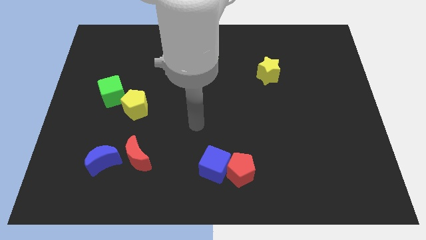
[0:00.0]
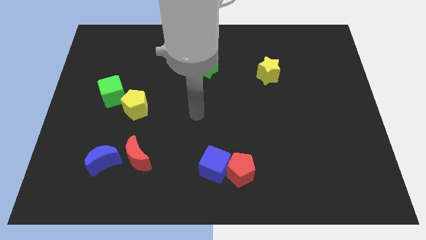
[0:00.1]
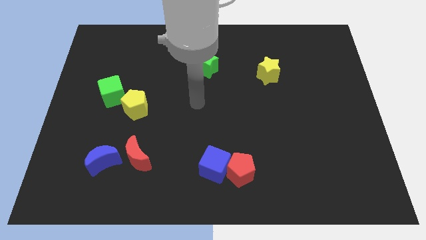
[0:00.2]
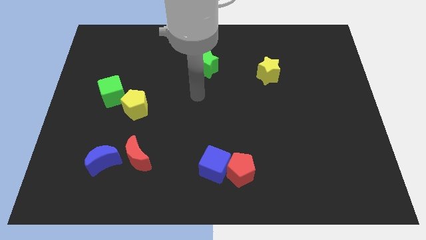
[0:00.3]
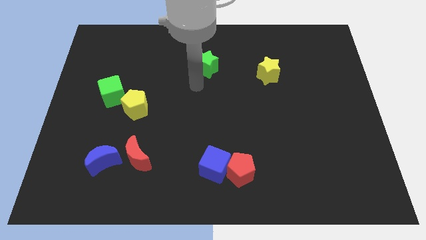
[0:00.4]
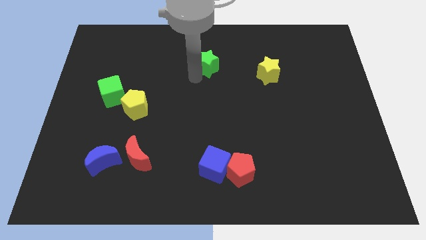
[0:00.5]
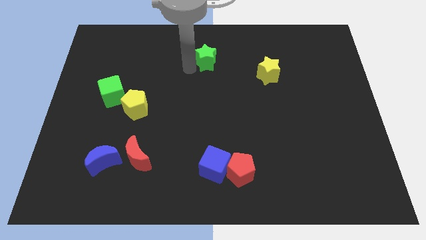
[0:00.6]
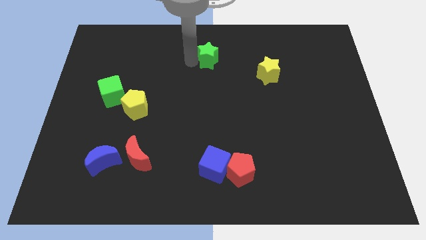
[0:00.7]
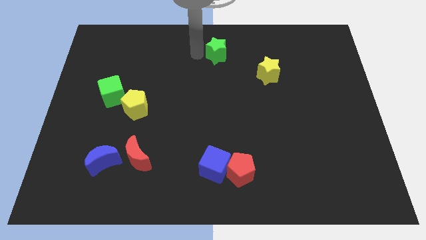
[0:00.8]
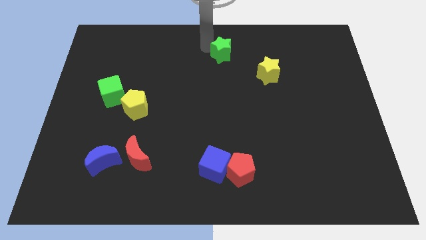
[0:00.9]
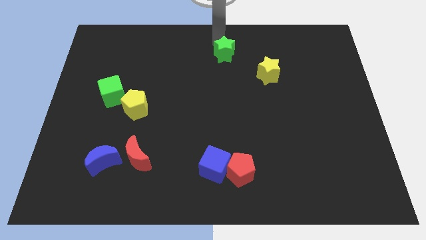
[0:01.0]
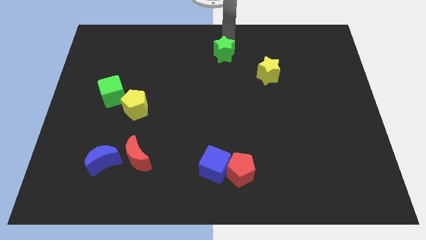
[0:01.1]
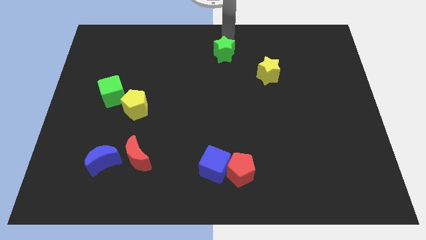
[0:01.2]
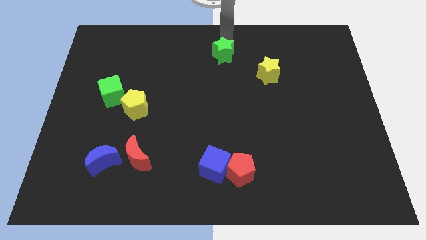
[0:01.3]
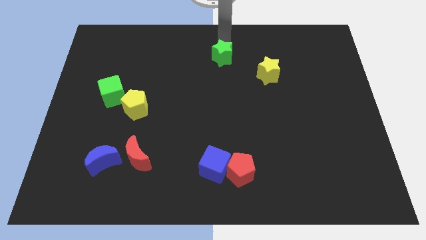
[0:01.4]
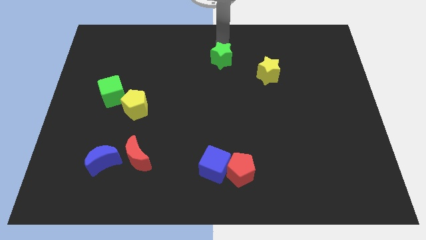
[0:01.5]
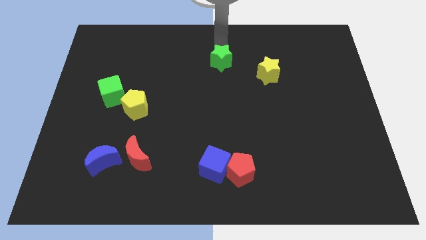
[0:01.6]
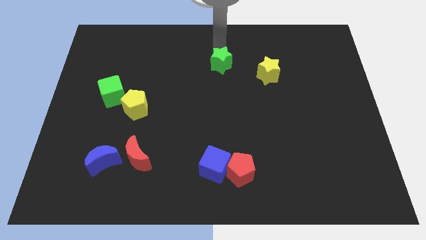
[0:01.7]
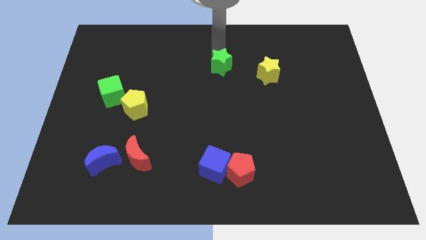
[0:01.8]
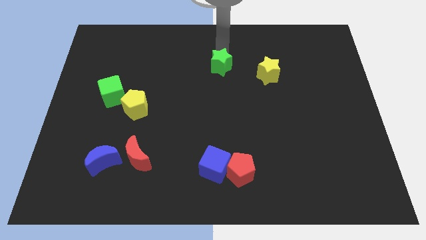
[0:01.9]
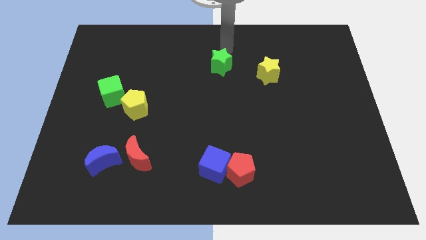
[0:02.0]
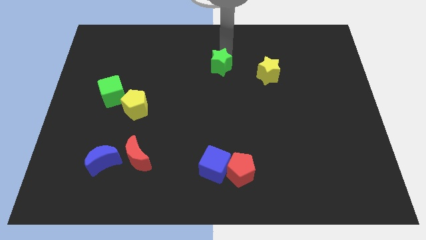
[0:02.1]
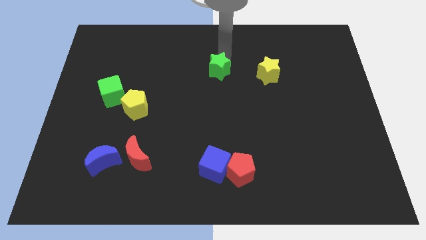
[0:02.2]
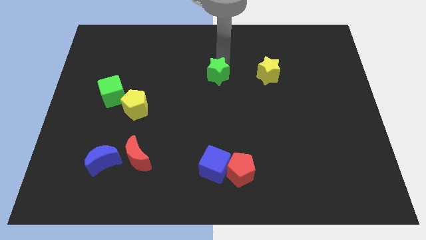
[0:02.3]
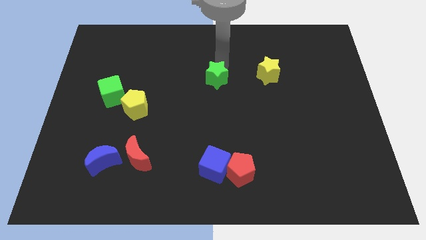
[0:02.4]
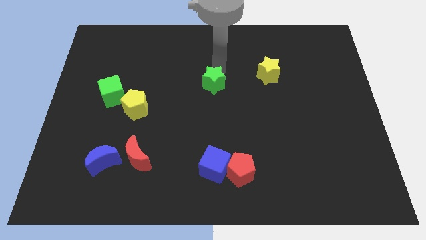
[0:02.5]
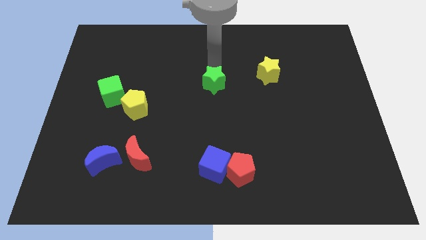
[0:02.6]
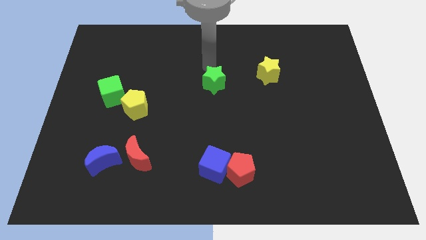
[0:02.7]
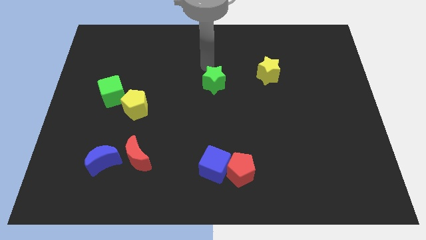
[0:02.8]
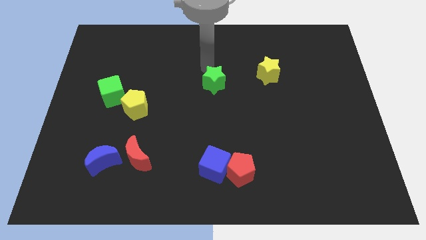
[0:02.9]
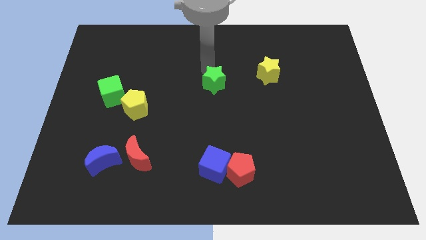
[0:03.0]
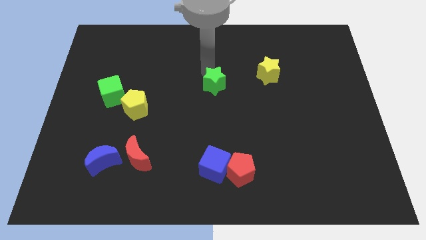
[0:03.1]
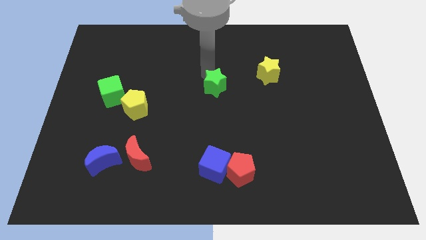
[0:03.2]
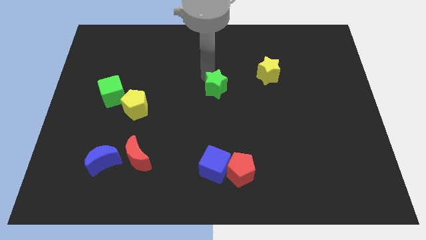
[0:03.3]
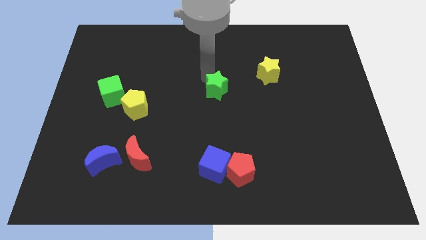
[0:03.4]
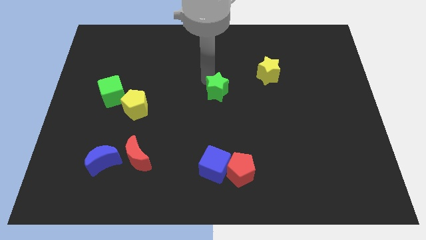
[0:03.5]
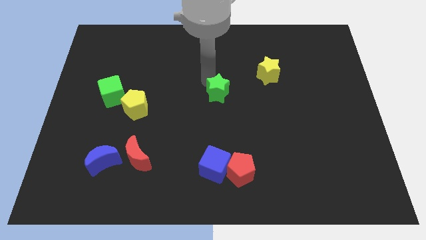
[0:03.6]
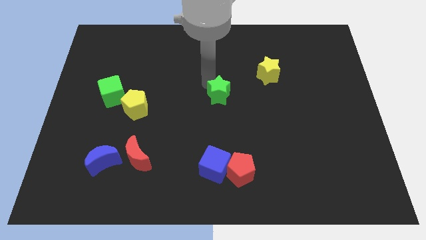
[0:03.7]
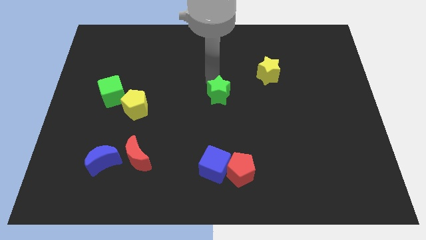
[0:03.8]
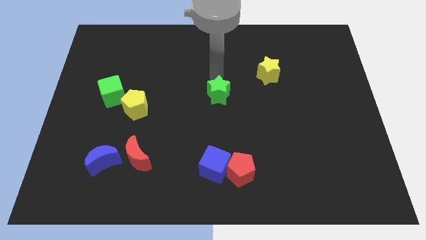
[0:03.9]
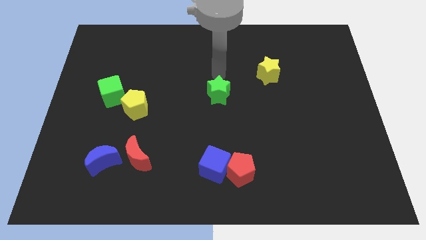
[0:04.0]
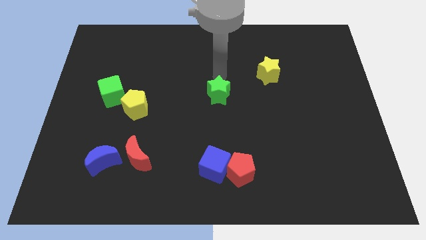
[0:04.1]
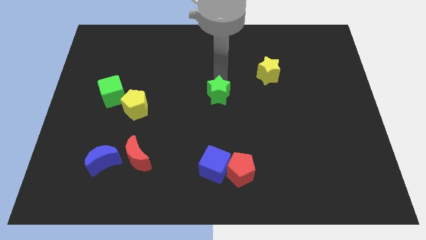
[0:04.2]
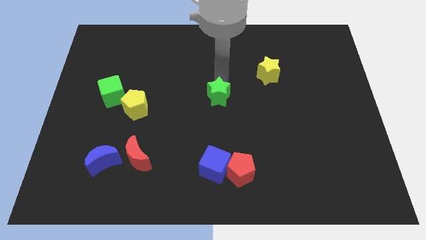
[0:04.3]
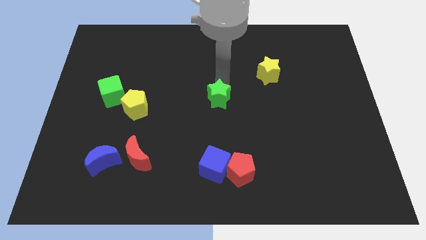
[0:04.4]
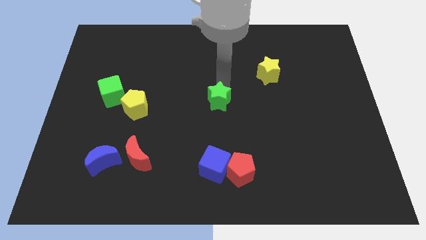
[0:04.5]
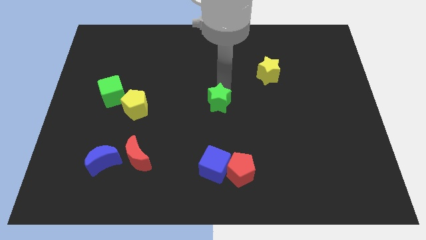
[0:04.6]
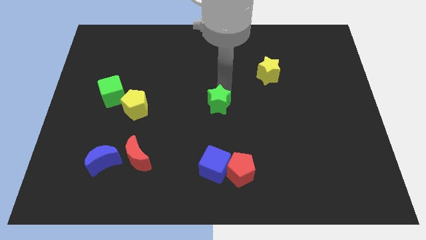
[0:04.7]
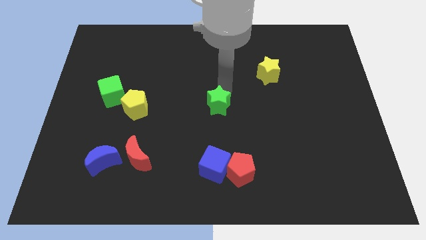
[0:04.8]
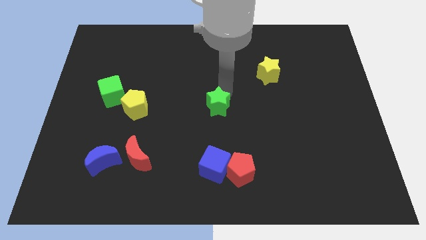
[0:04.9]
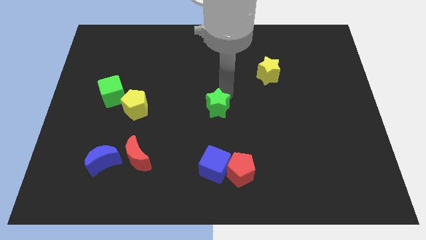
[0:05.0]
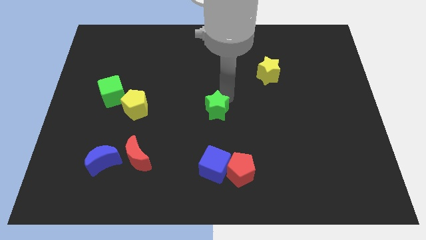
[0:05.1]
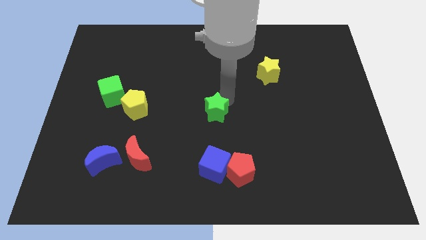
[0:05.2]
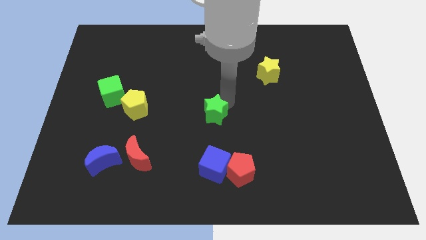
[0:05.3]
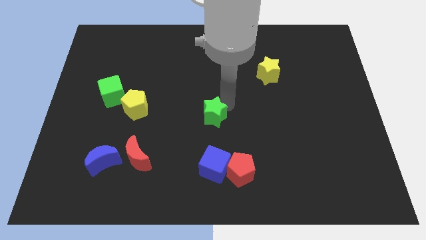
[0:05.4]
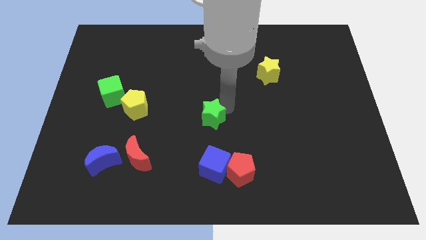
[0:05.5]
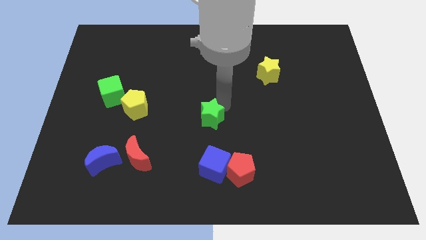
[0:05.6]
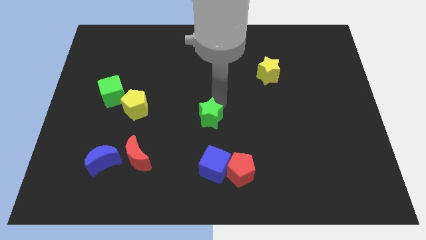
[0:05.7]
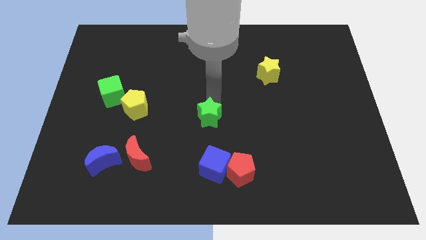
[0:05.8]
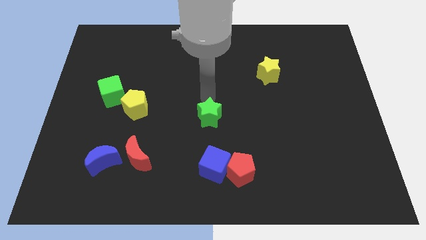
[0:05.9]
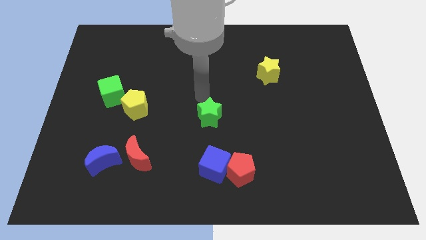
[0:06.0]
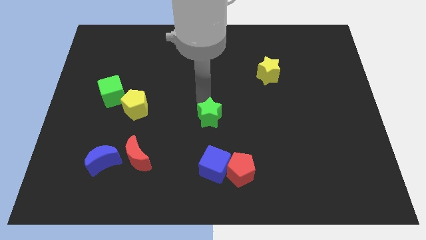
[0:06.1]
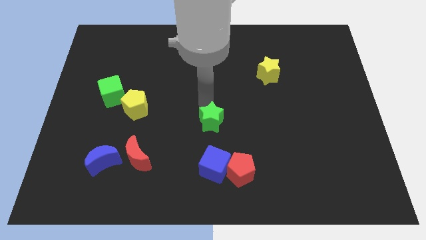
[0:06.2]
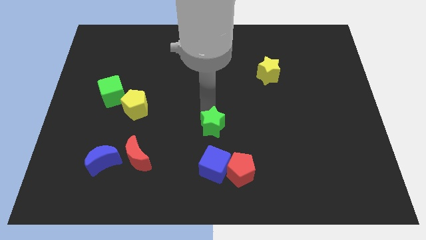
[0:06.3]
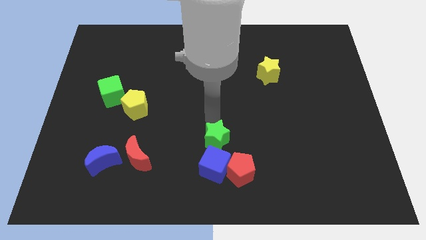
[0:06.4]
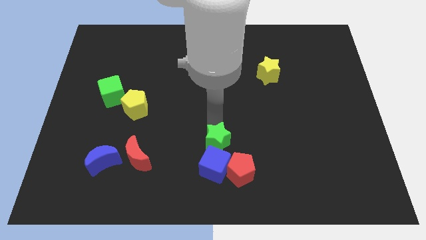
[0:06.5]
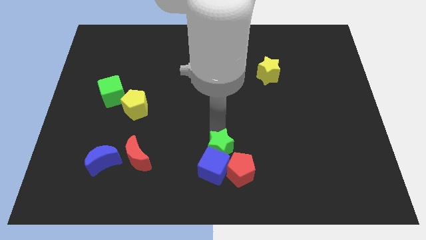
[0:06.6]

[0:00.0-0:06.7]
move the green star next to the blue cube

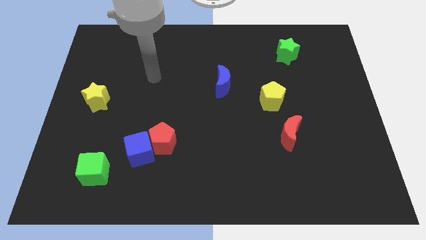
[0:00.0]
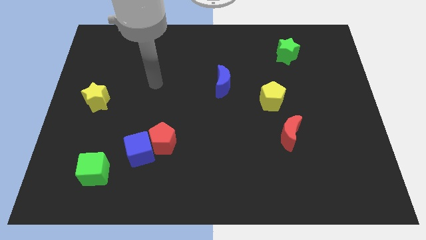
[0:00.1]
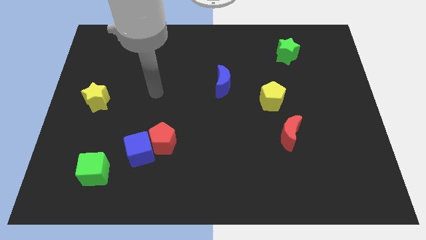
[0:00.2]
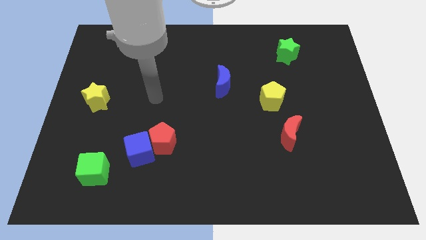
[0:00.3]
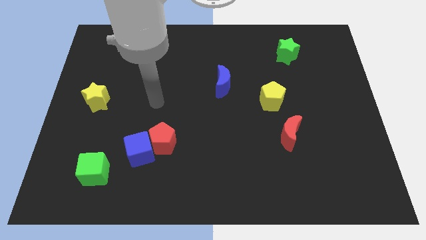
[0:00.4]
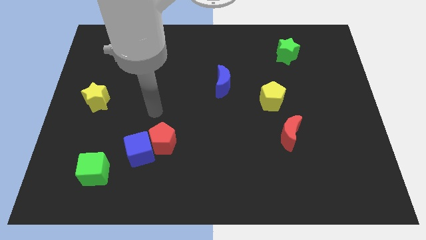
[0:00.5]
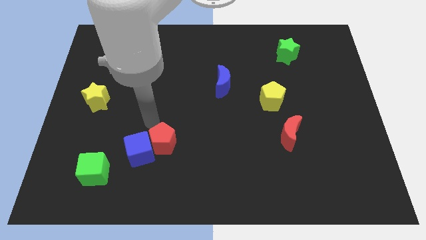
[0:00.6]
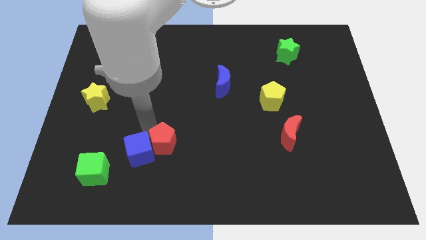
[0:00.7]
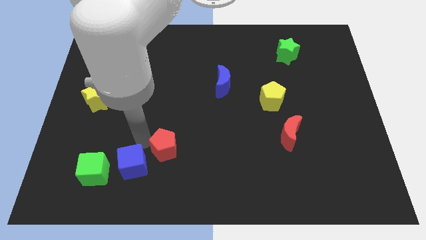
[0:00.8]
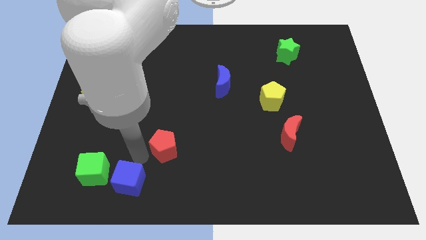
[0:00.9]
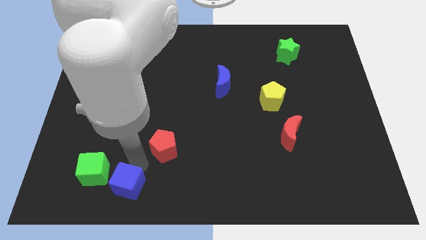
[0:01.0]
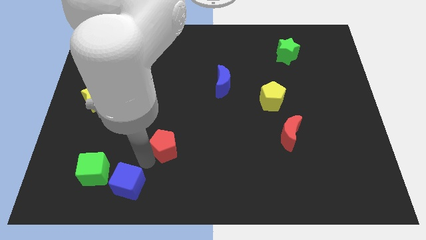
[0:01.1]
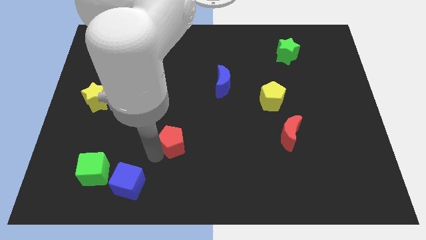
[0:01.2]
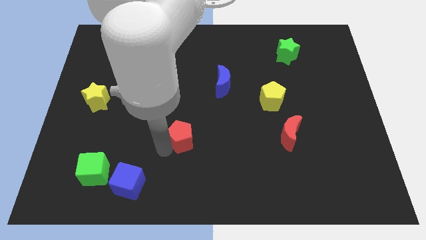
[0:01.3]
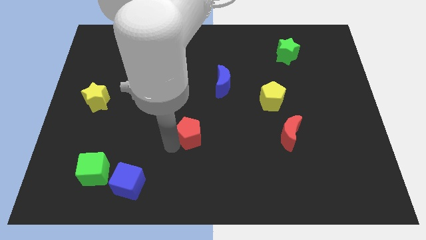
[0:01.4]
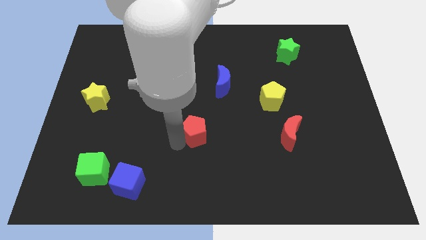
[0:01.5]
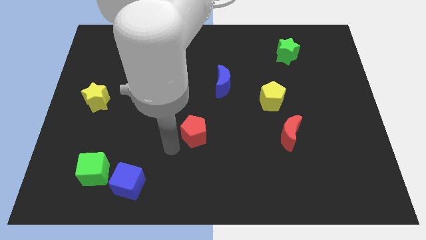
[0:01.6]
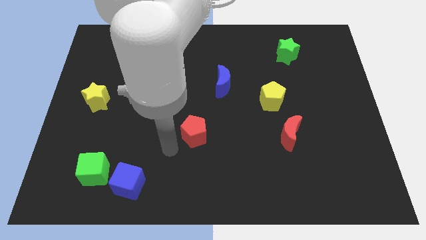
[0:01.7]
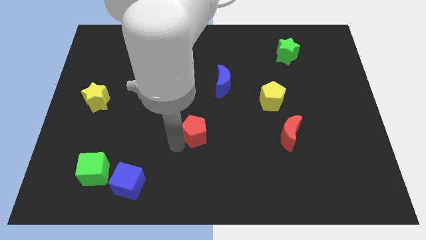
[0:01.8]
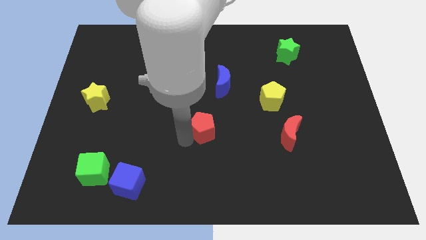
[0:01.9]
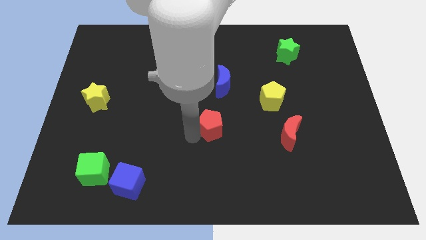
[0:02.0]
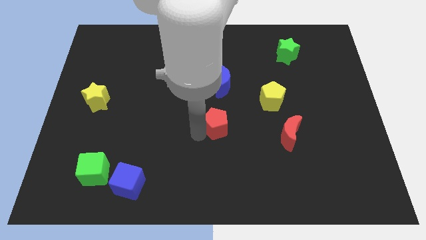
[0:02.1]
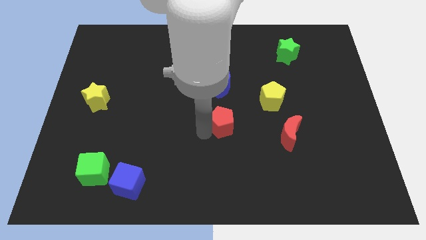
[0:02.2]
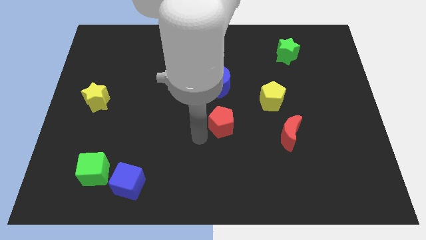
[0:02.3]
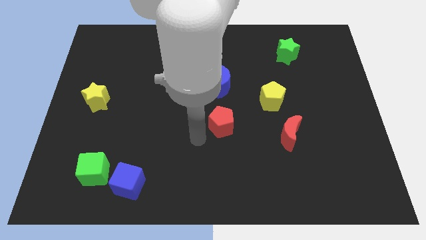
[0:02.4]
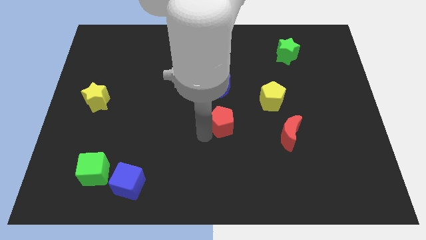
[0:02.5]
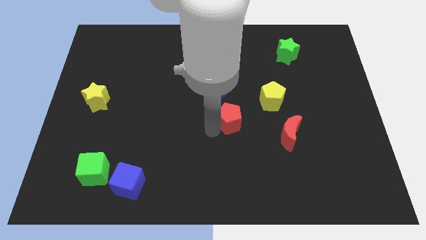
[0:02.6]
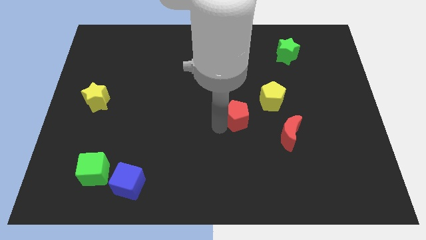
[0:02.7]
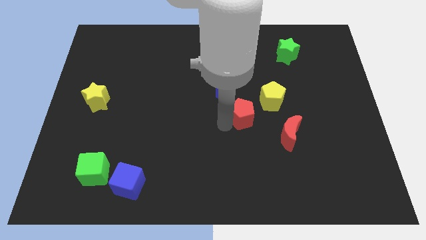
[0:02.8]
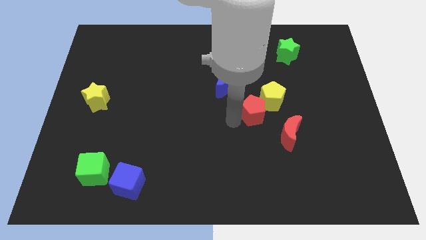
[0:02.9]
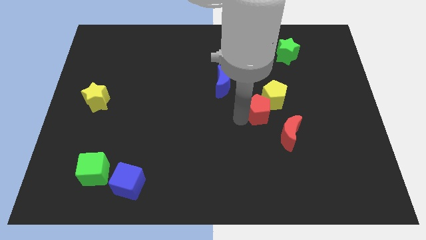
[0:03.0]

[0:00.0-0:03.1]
put the red pentagon to the yellow pentagon
